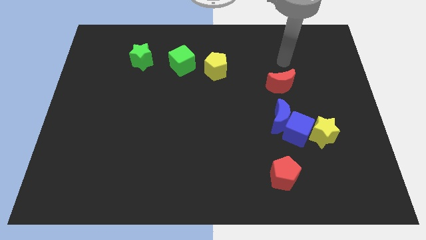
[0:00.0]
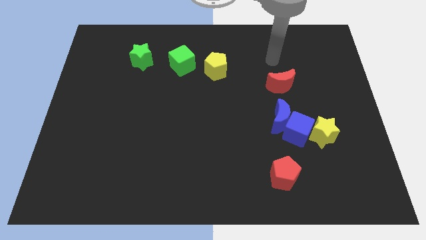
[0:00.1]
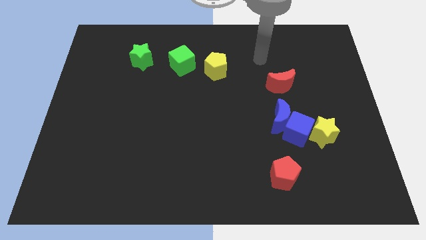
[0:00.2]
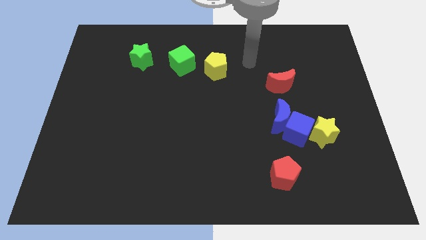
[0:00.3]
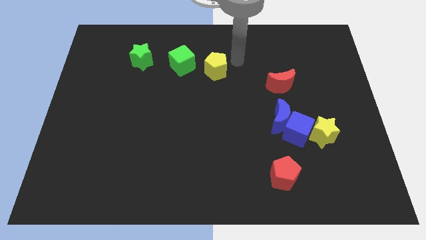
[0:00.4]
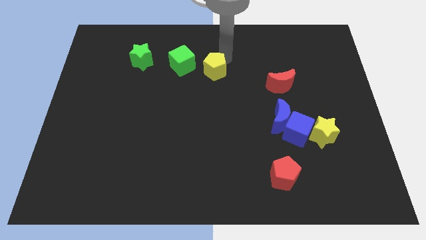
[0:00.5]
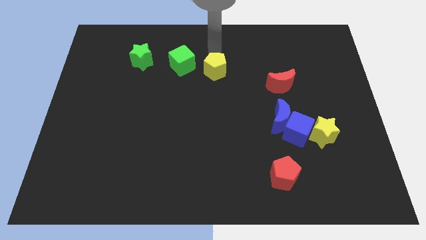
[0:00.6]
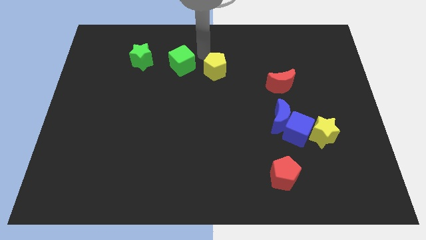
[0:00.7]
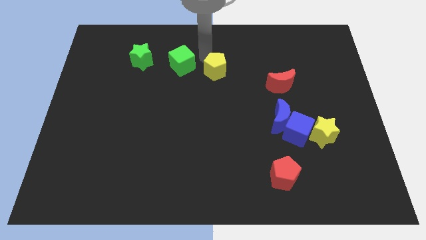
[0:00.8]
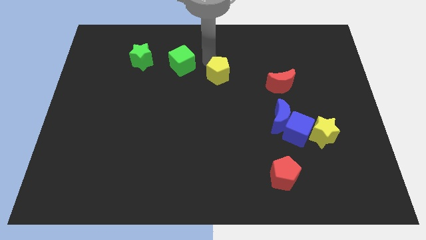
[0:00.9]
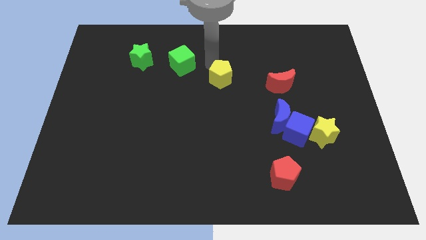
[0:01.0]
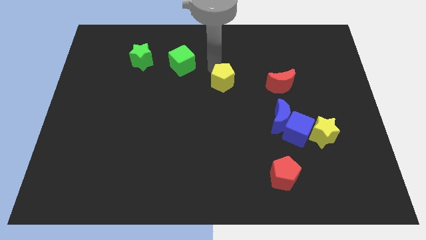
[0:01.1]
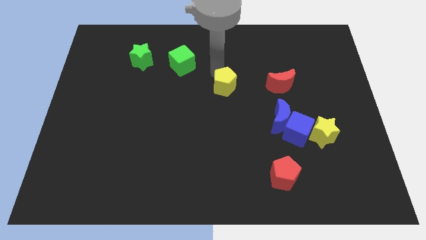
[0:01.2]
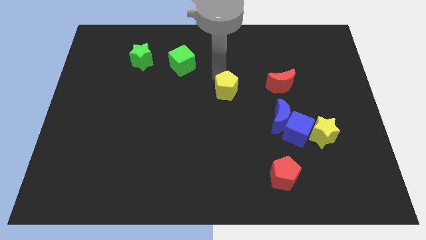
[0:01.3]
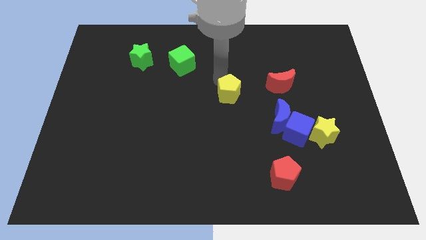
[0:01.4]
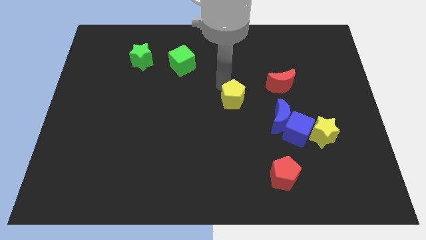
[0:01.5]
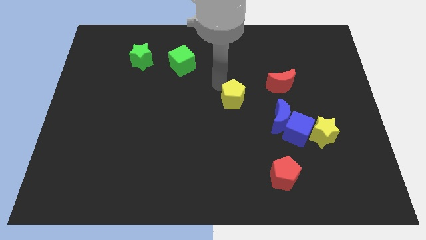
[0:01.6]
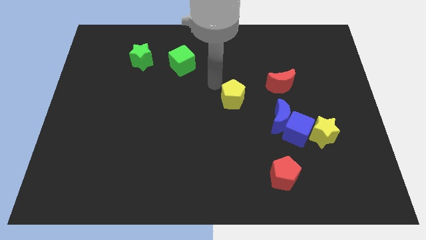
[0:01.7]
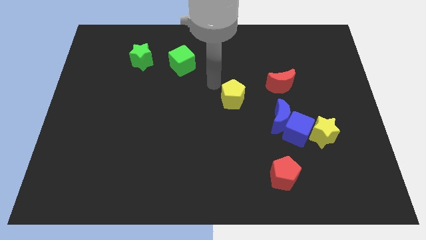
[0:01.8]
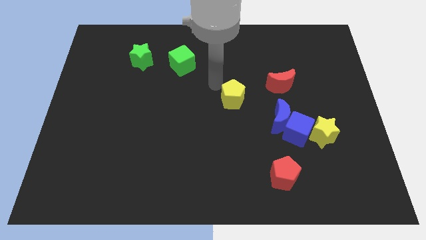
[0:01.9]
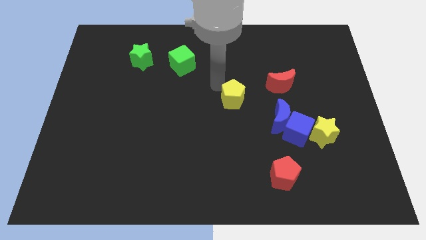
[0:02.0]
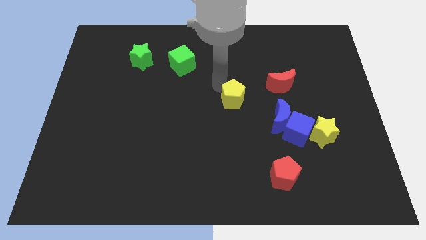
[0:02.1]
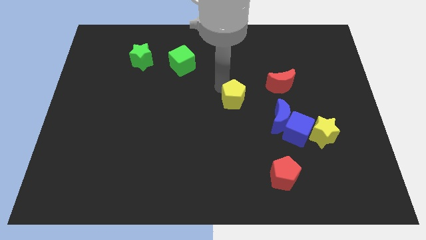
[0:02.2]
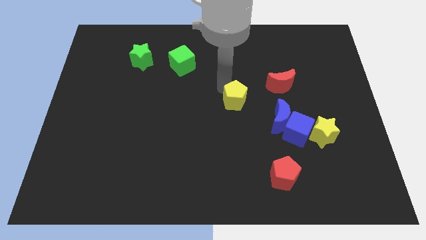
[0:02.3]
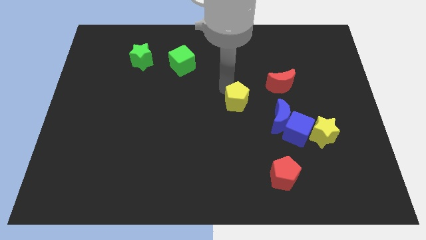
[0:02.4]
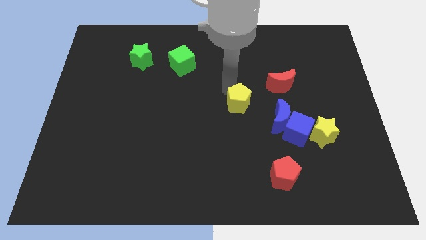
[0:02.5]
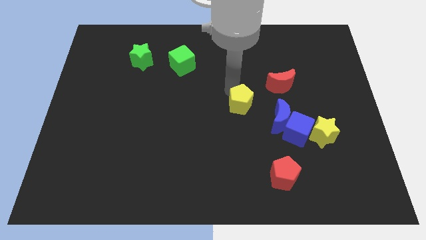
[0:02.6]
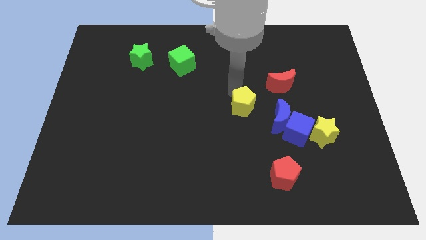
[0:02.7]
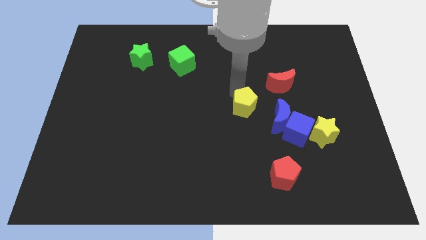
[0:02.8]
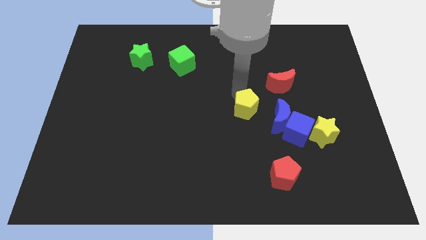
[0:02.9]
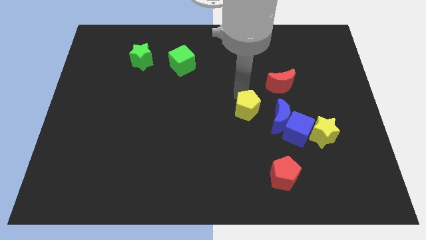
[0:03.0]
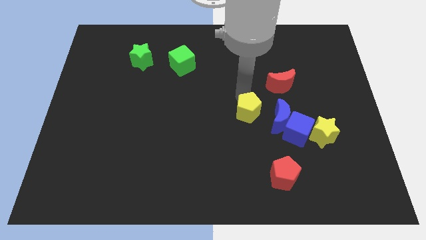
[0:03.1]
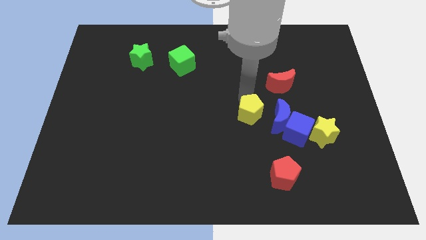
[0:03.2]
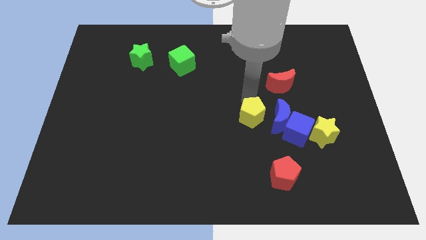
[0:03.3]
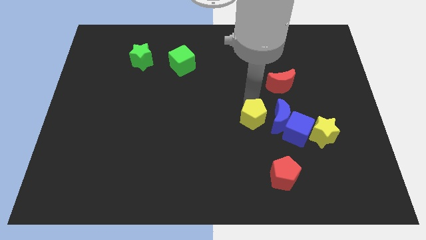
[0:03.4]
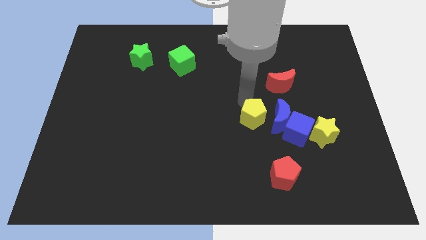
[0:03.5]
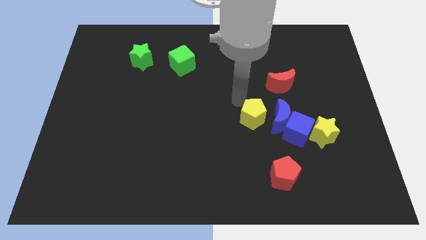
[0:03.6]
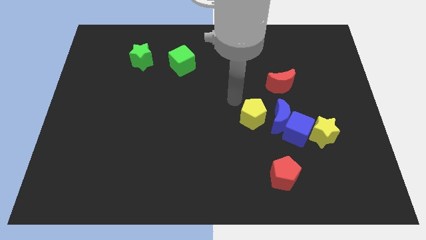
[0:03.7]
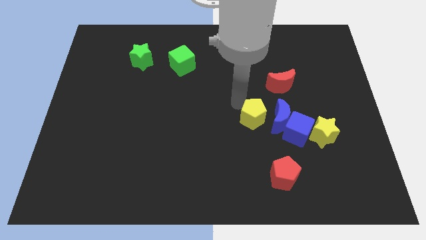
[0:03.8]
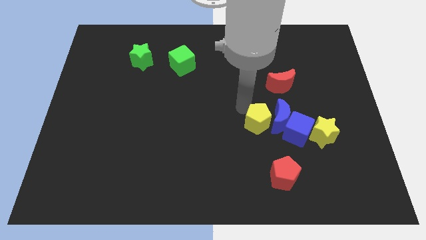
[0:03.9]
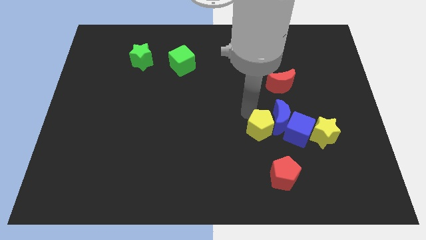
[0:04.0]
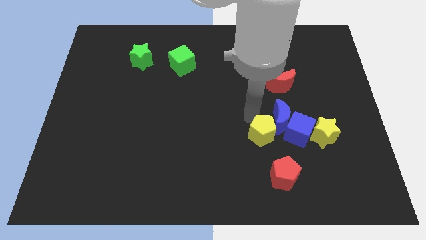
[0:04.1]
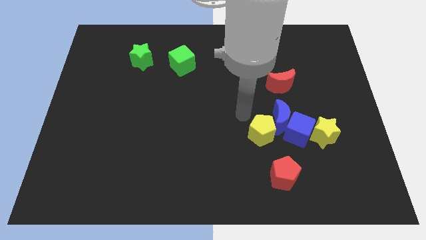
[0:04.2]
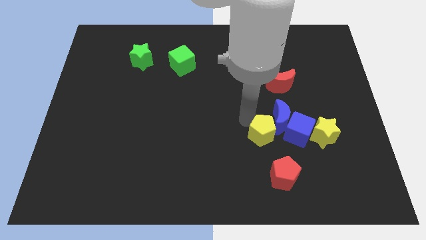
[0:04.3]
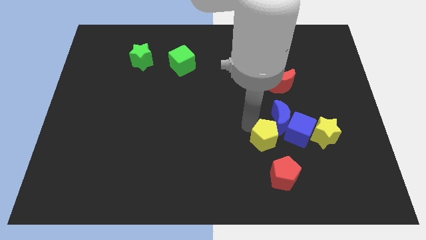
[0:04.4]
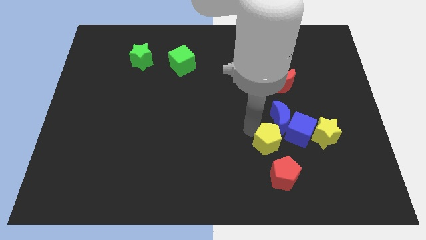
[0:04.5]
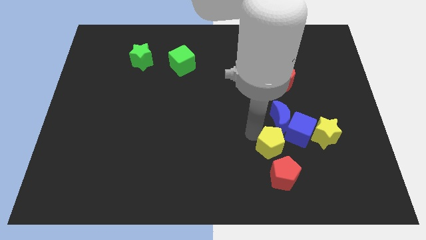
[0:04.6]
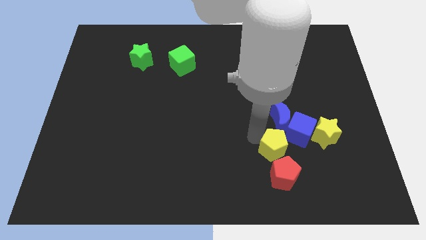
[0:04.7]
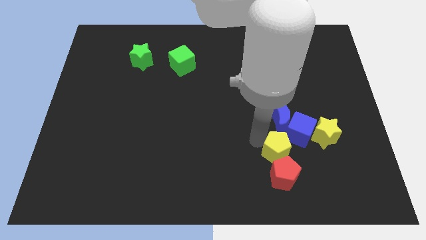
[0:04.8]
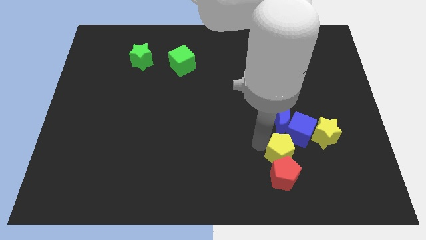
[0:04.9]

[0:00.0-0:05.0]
move the yellow pentagon below the blue cube

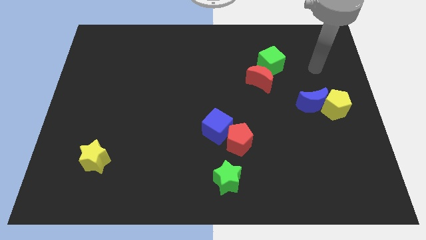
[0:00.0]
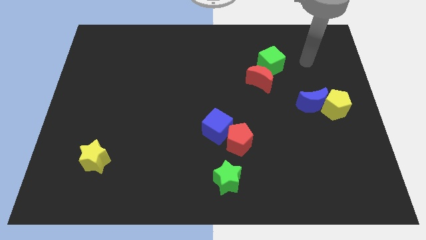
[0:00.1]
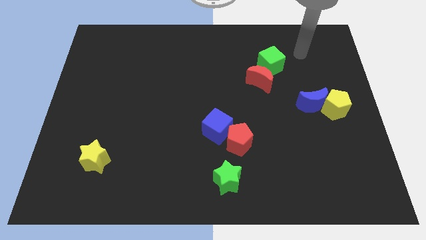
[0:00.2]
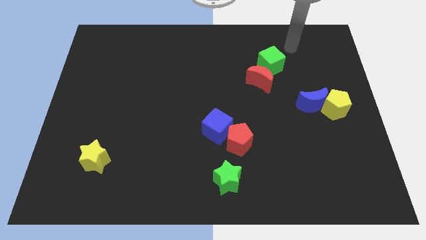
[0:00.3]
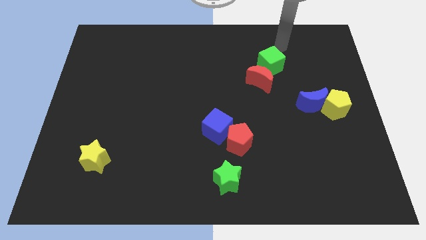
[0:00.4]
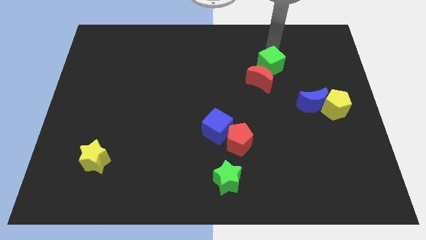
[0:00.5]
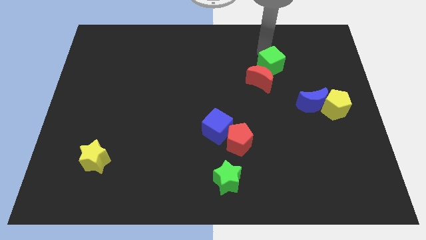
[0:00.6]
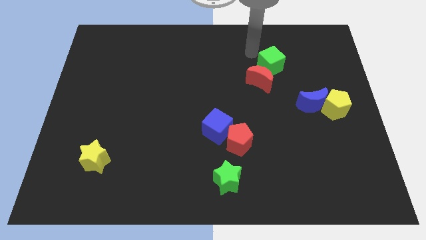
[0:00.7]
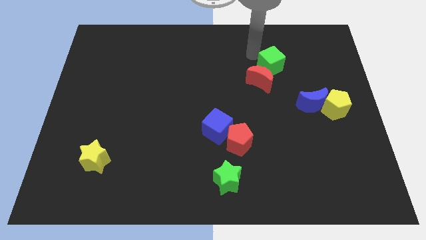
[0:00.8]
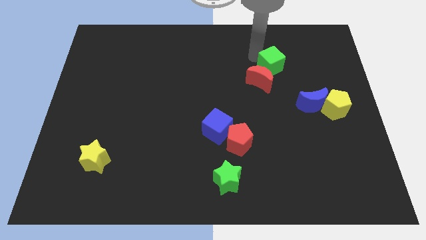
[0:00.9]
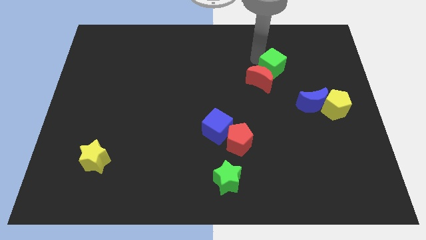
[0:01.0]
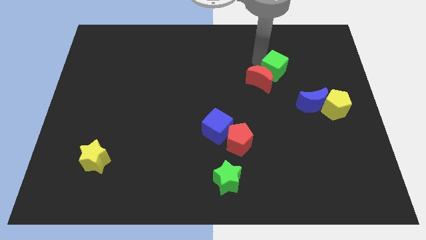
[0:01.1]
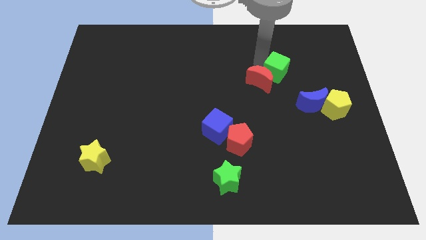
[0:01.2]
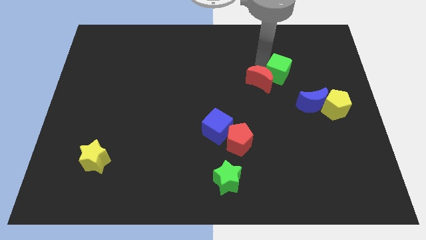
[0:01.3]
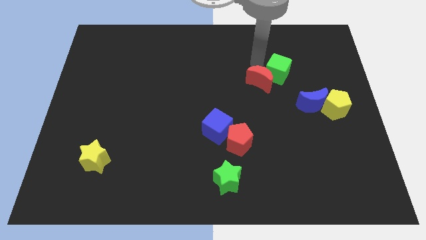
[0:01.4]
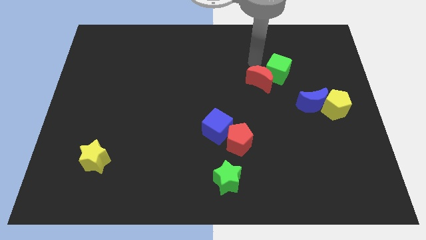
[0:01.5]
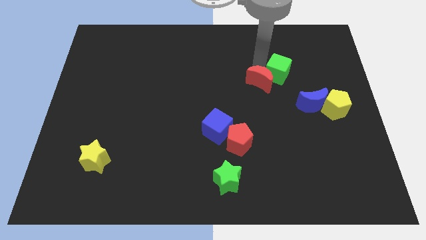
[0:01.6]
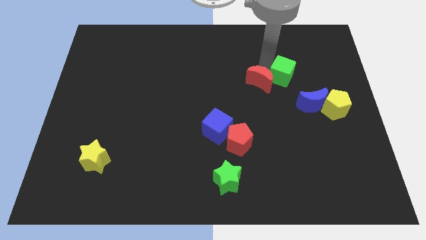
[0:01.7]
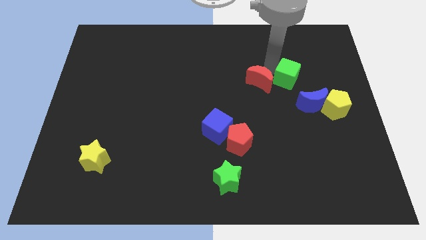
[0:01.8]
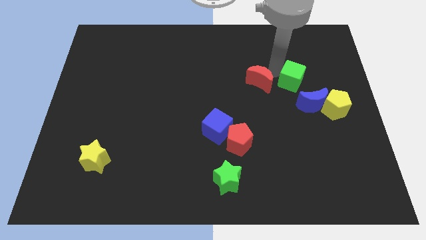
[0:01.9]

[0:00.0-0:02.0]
push the green cube diagonally up and to the left of the yellow pentagon
